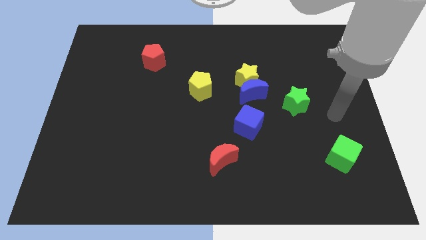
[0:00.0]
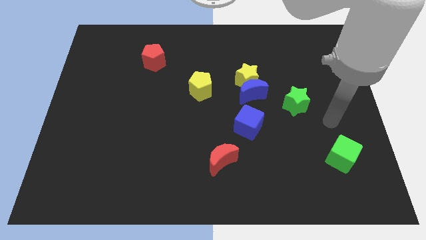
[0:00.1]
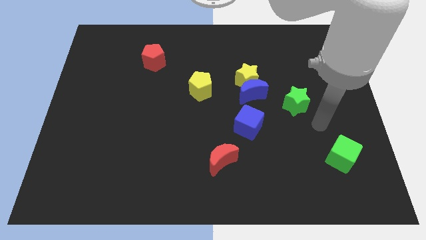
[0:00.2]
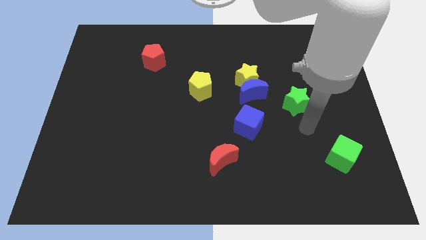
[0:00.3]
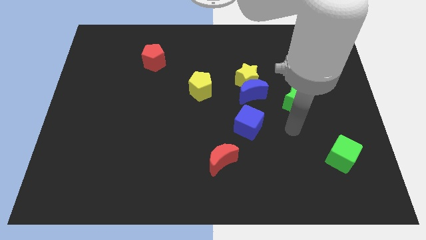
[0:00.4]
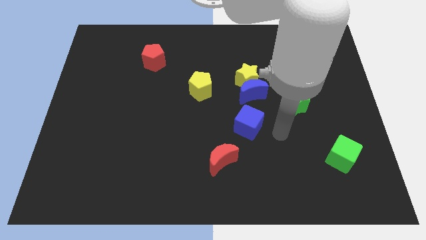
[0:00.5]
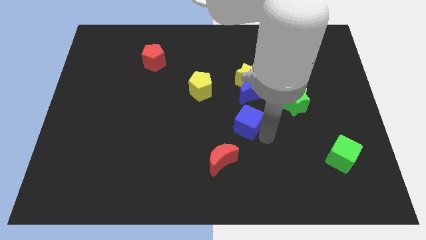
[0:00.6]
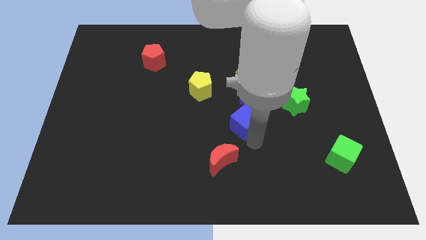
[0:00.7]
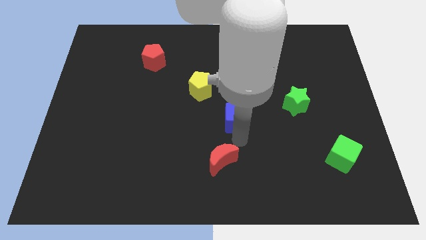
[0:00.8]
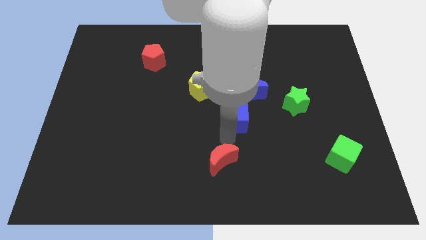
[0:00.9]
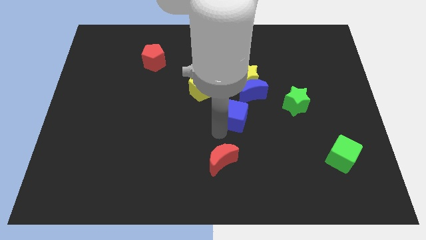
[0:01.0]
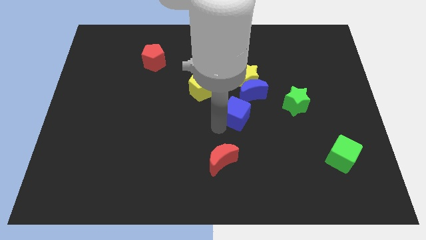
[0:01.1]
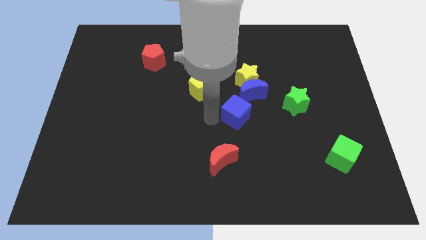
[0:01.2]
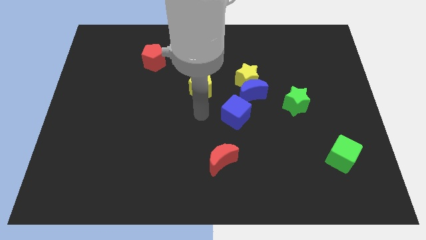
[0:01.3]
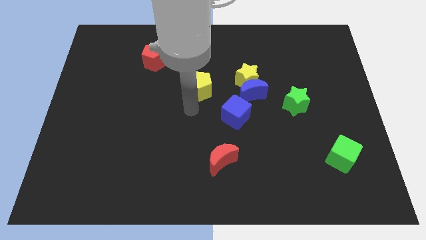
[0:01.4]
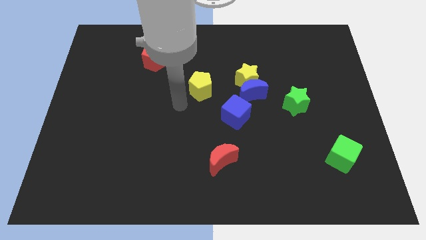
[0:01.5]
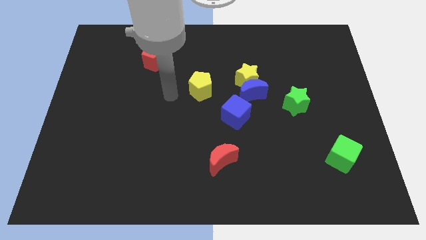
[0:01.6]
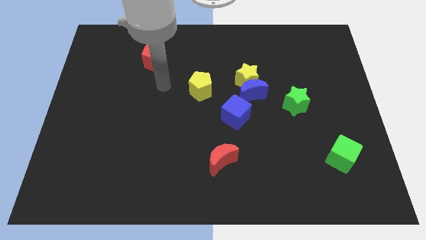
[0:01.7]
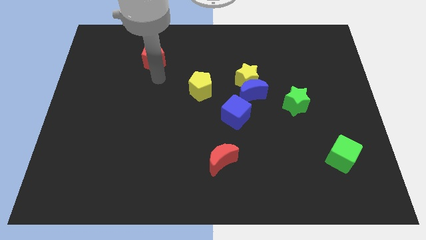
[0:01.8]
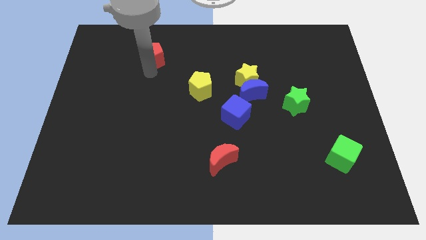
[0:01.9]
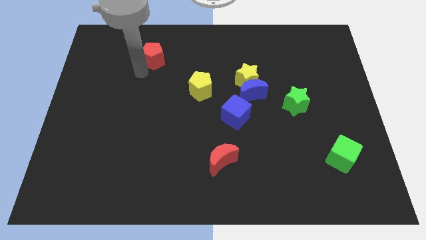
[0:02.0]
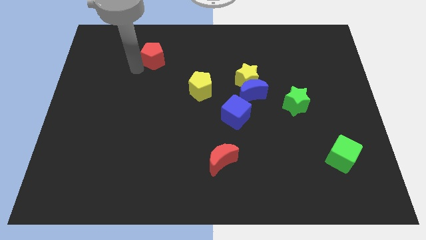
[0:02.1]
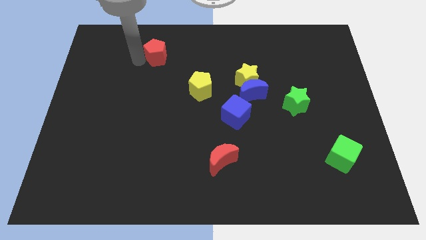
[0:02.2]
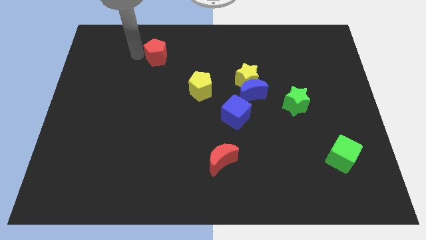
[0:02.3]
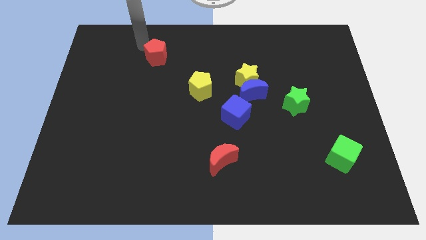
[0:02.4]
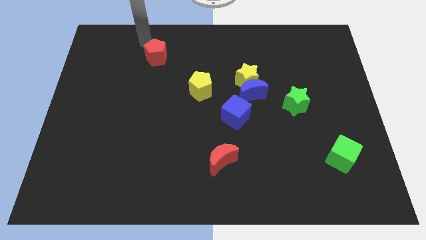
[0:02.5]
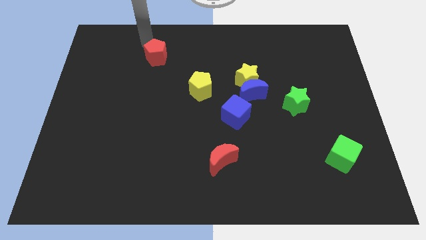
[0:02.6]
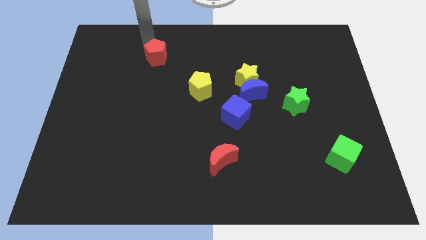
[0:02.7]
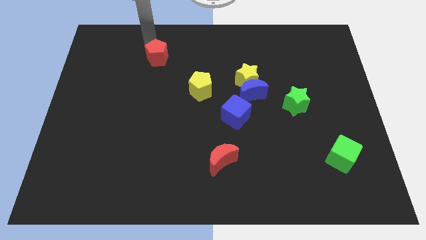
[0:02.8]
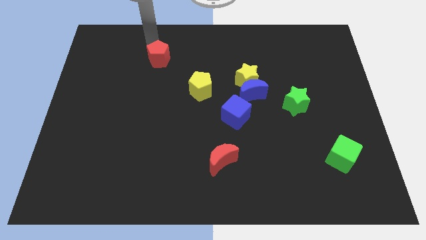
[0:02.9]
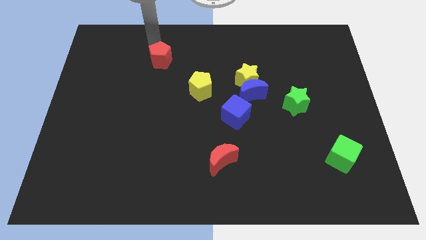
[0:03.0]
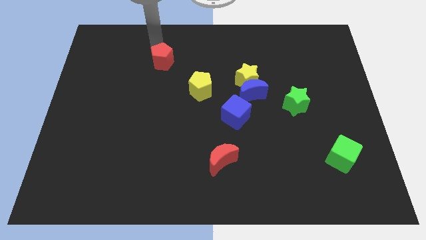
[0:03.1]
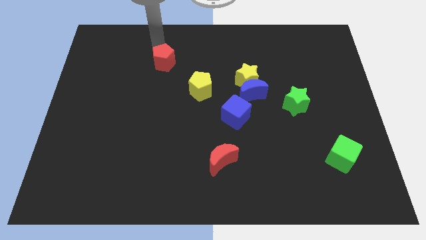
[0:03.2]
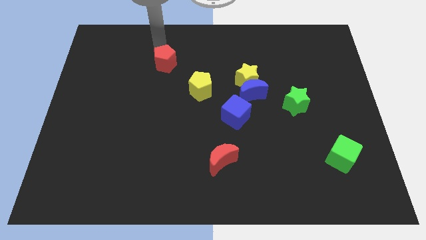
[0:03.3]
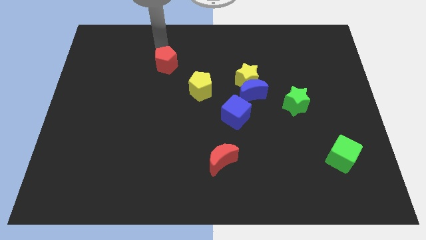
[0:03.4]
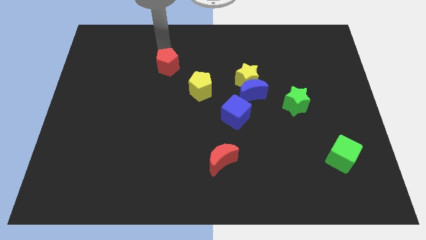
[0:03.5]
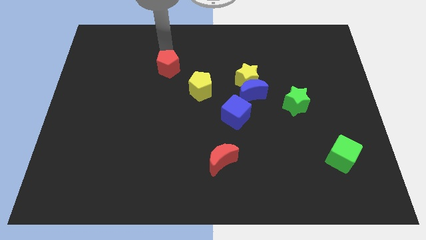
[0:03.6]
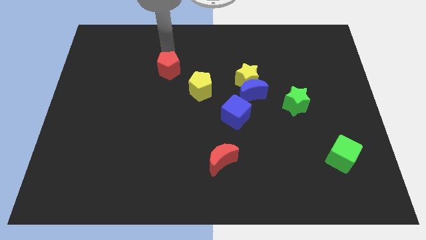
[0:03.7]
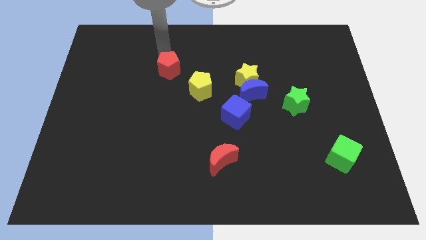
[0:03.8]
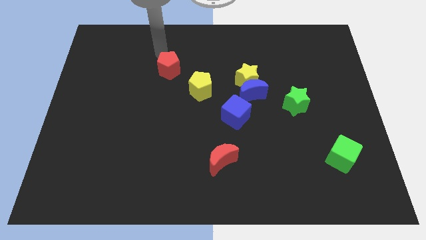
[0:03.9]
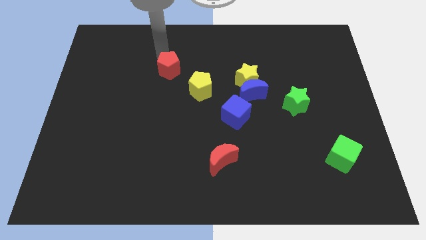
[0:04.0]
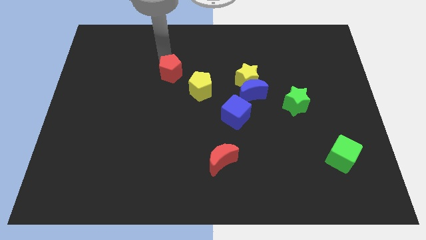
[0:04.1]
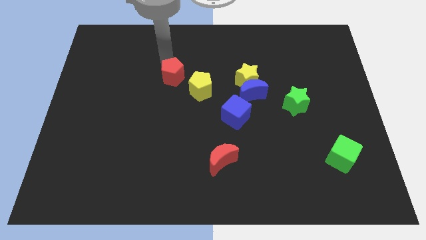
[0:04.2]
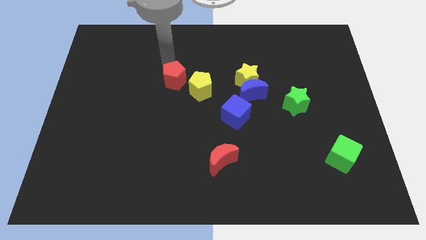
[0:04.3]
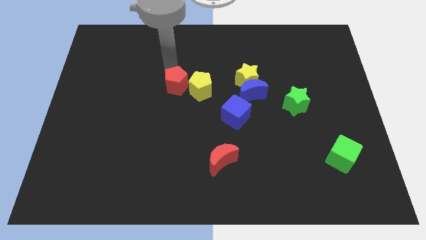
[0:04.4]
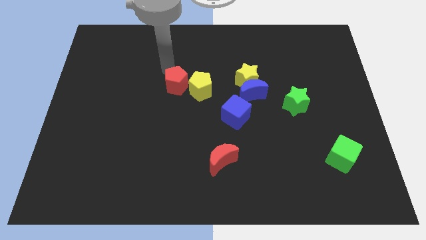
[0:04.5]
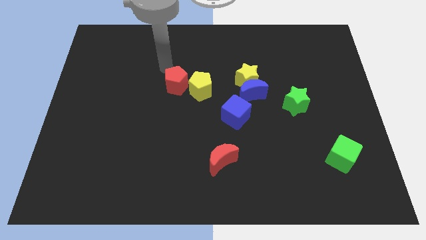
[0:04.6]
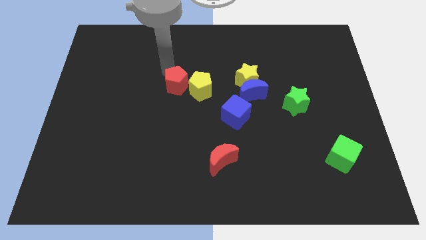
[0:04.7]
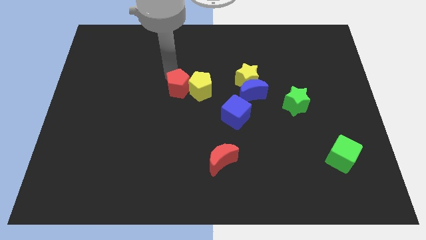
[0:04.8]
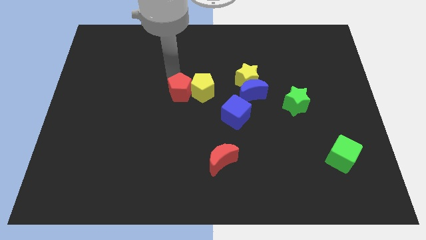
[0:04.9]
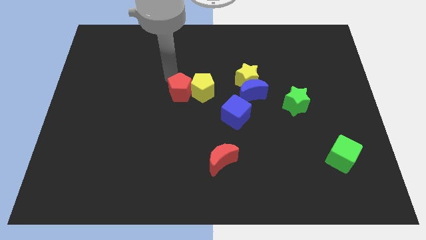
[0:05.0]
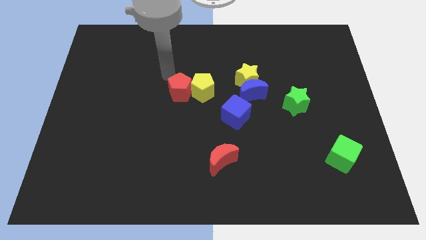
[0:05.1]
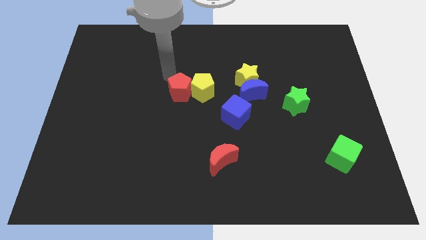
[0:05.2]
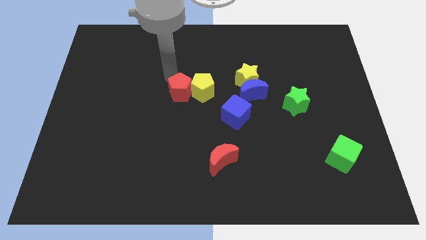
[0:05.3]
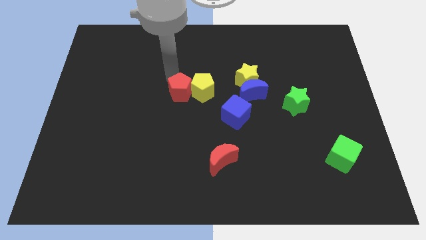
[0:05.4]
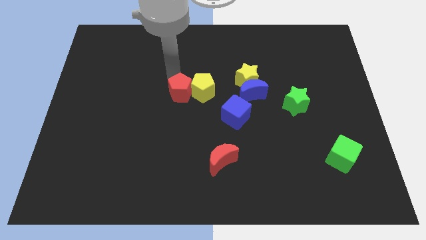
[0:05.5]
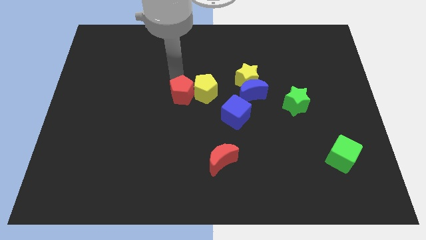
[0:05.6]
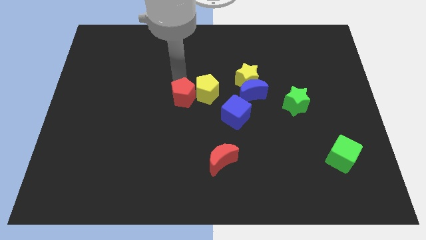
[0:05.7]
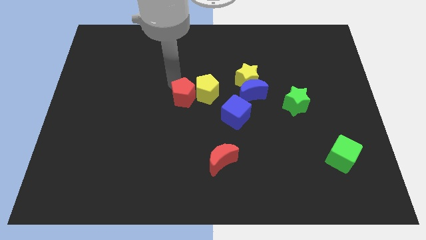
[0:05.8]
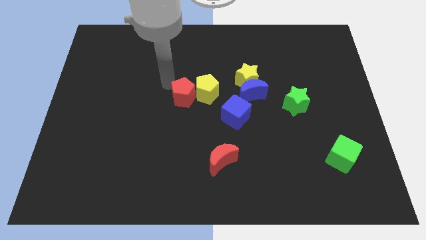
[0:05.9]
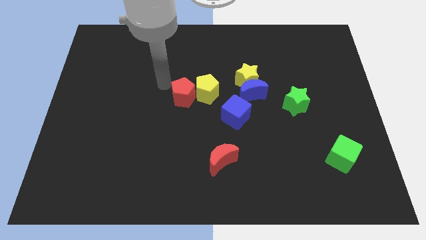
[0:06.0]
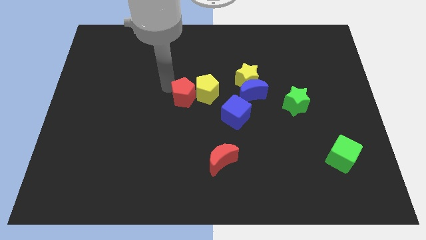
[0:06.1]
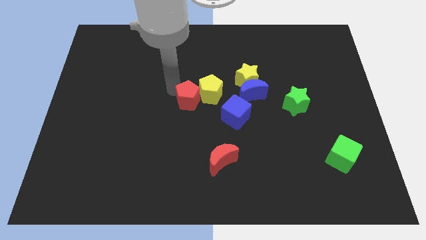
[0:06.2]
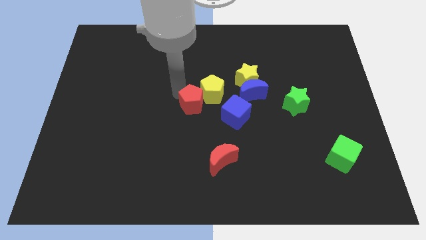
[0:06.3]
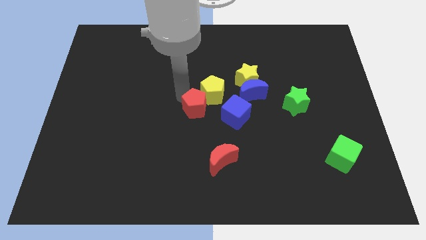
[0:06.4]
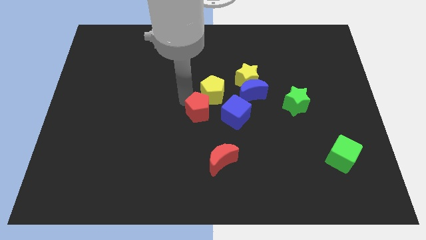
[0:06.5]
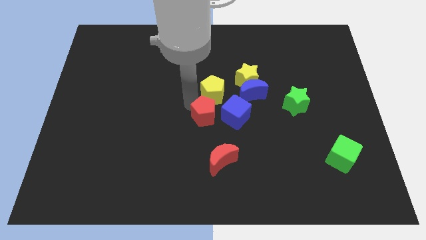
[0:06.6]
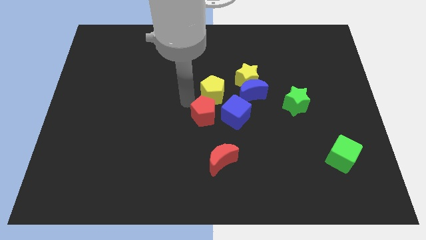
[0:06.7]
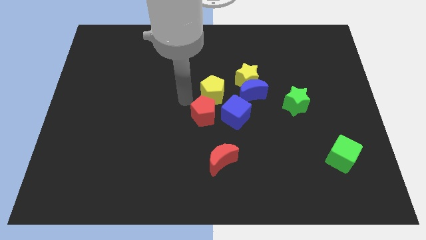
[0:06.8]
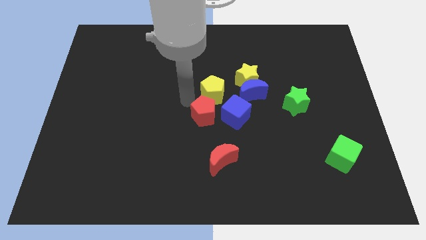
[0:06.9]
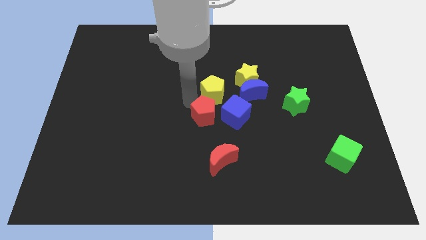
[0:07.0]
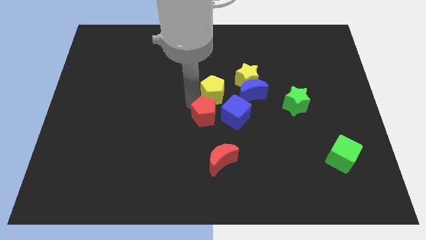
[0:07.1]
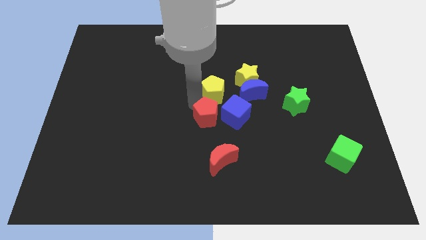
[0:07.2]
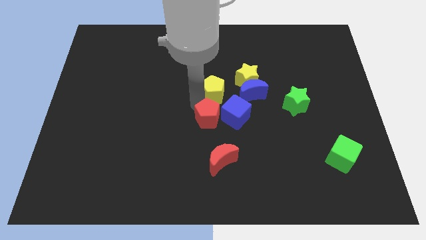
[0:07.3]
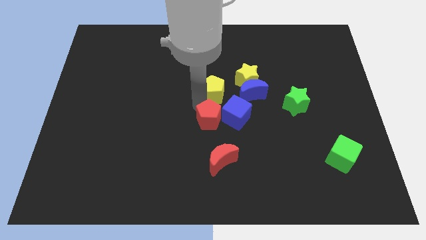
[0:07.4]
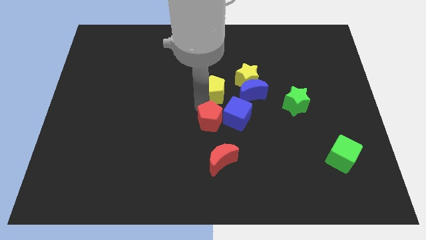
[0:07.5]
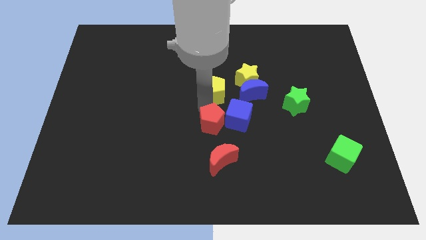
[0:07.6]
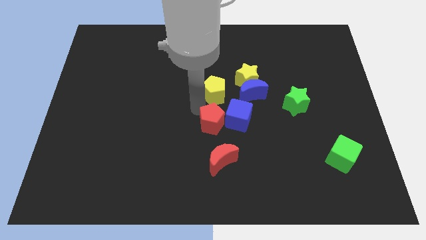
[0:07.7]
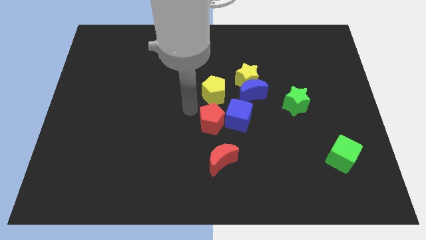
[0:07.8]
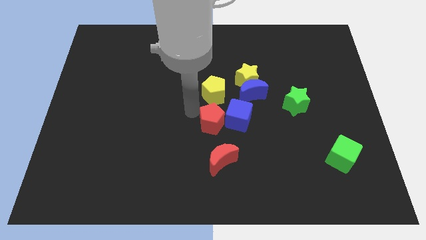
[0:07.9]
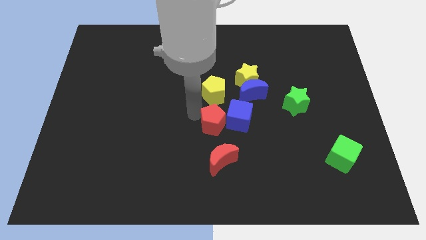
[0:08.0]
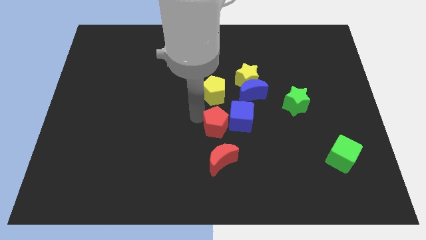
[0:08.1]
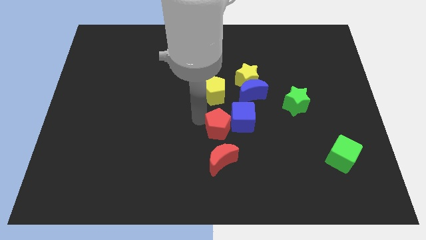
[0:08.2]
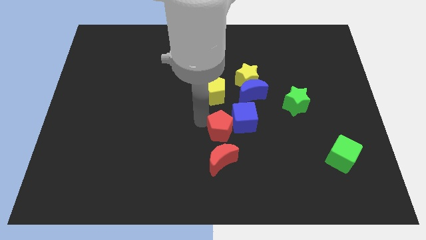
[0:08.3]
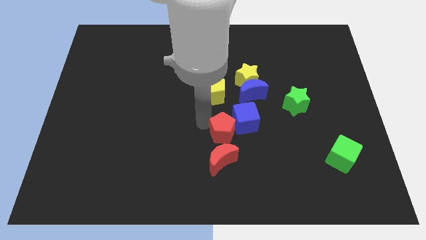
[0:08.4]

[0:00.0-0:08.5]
put the red pentagon to the top right of the red moon
